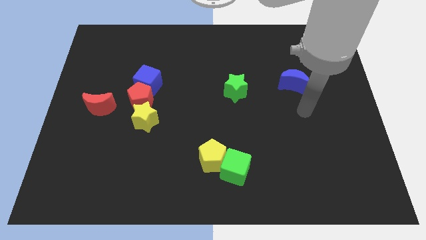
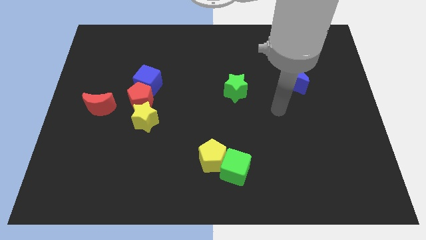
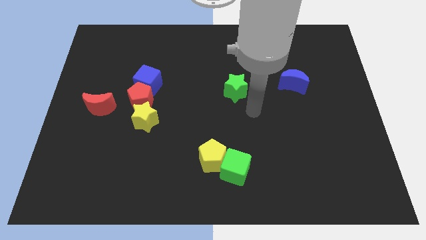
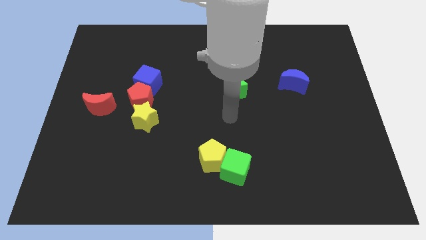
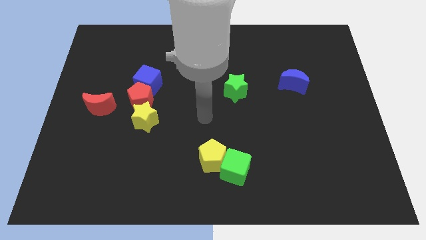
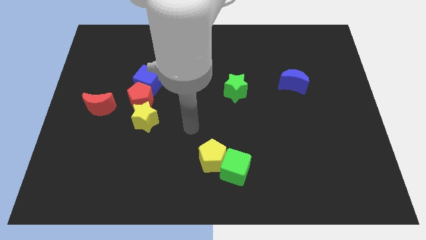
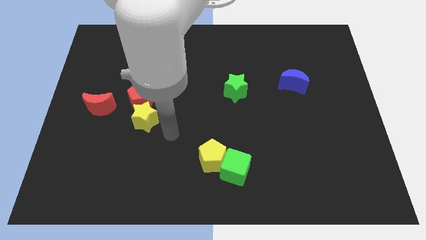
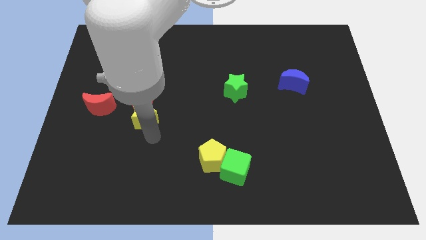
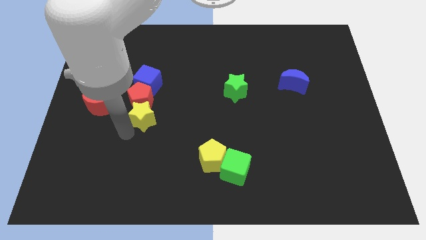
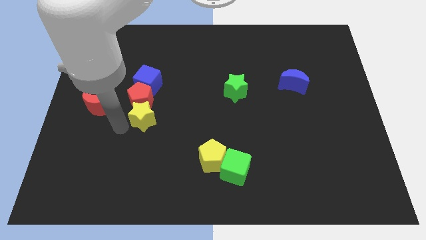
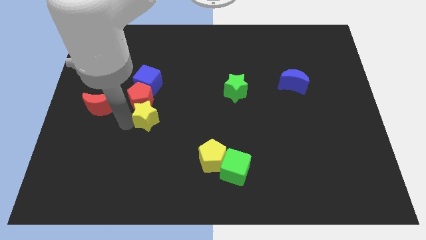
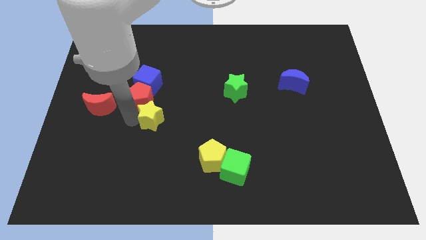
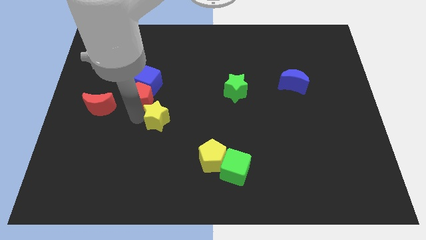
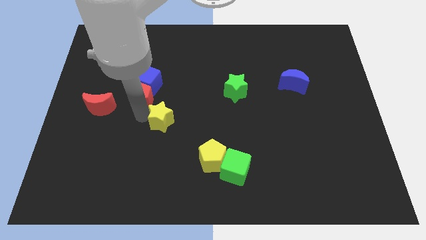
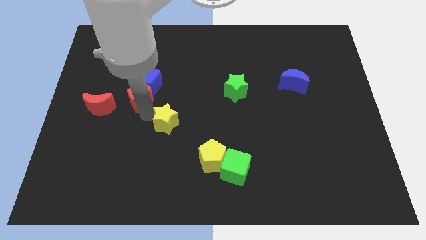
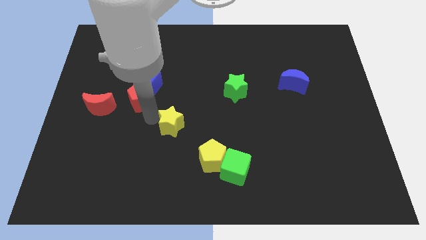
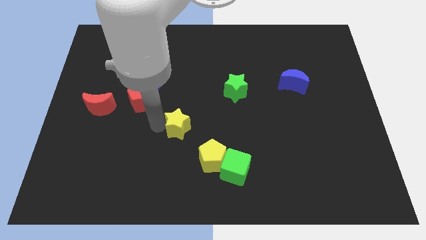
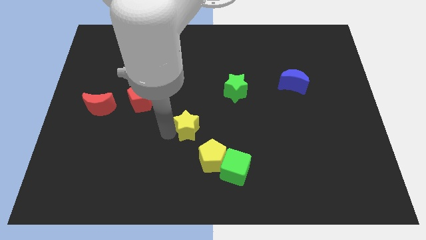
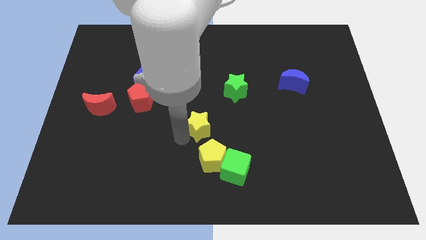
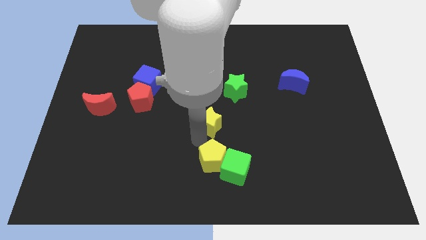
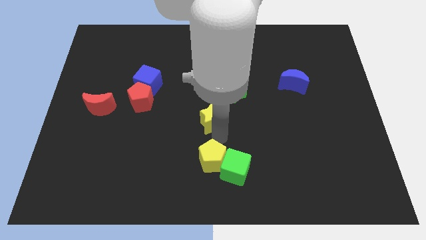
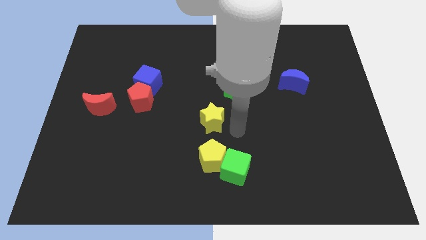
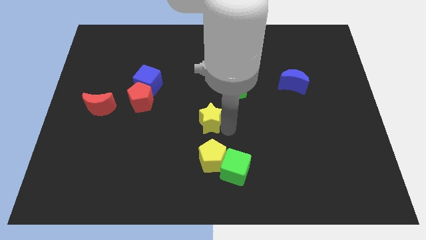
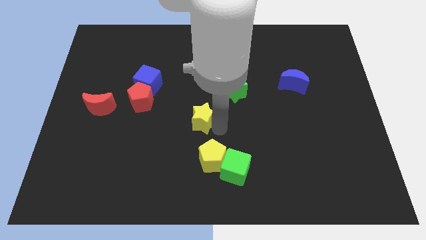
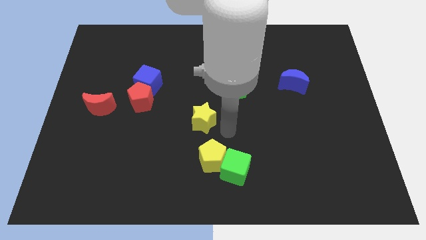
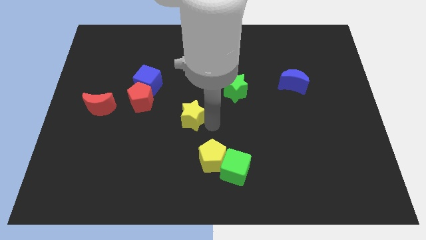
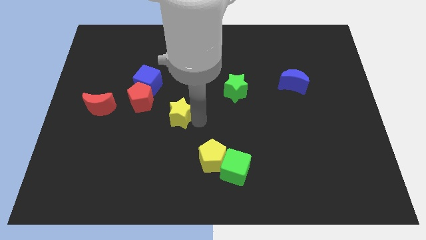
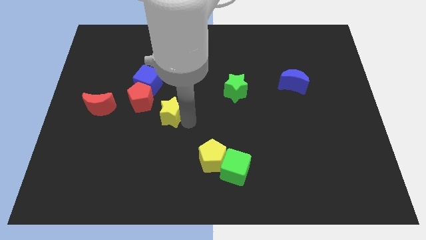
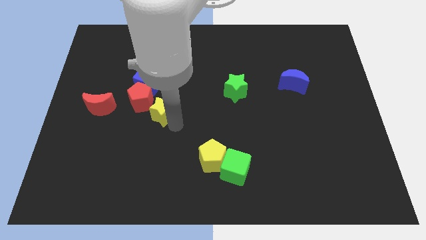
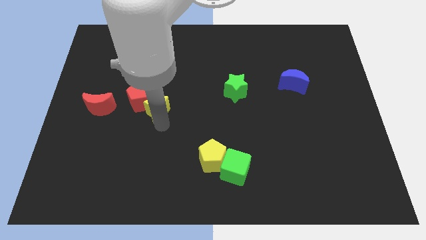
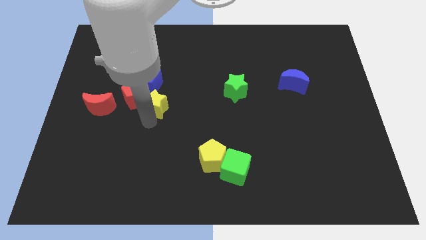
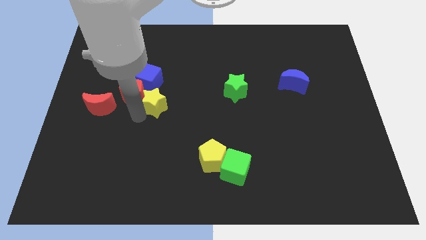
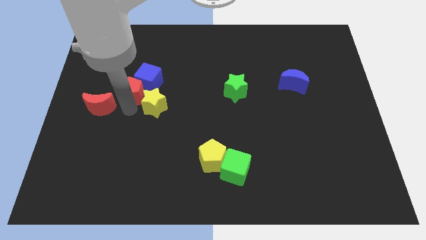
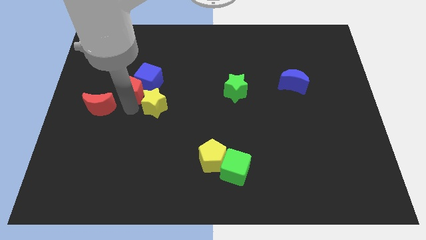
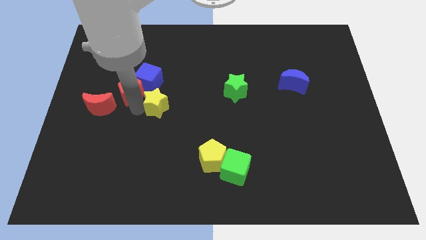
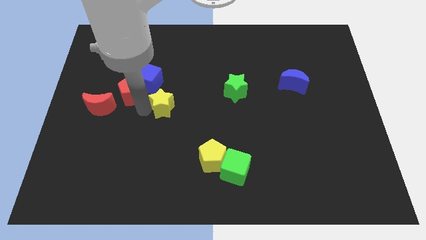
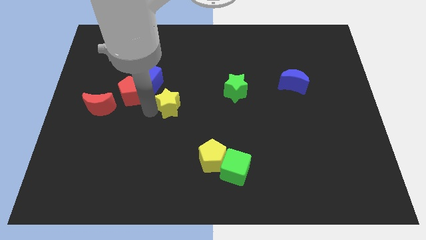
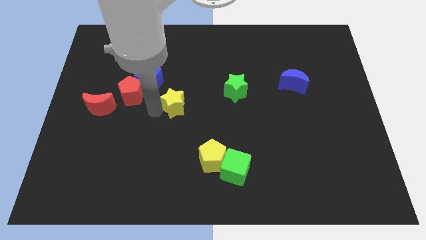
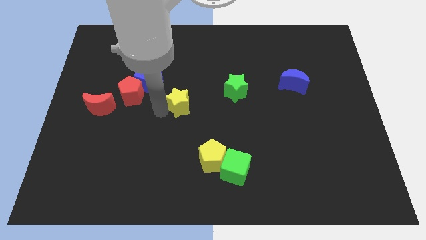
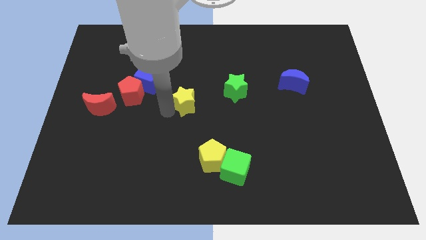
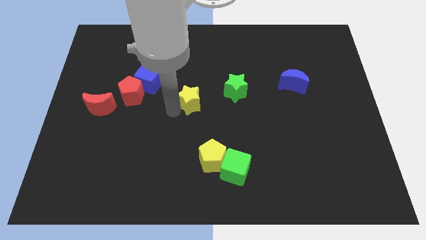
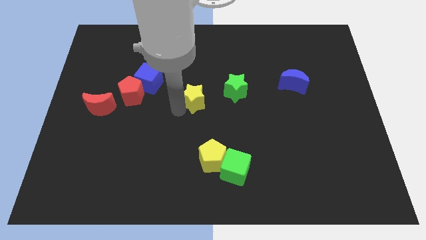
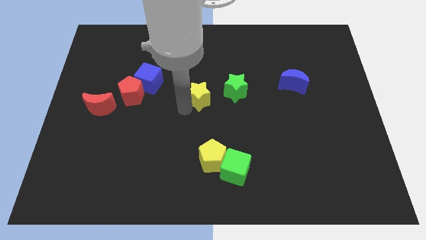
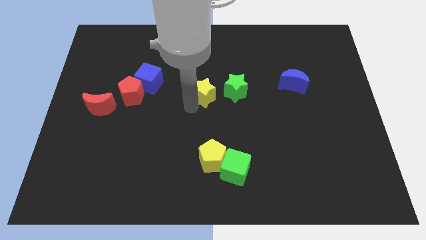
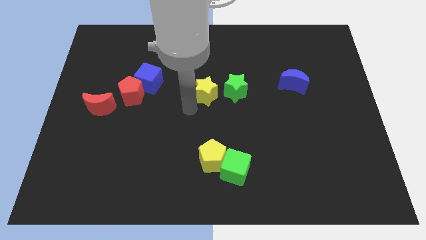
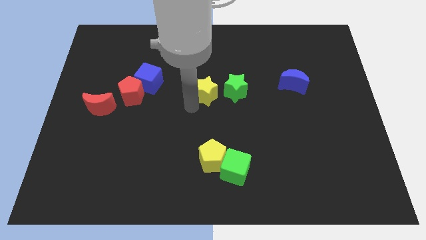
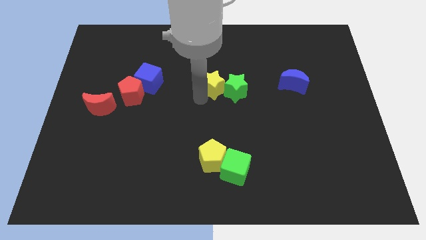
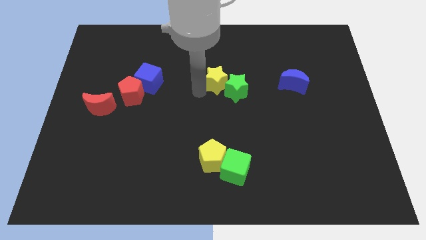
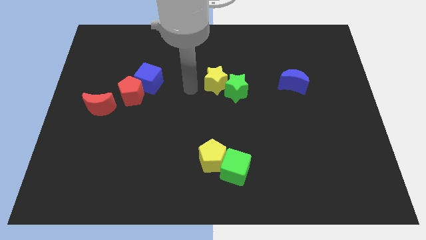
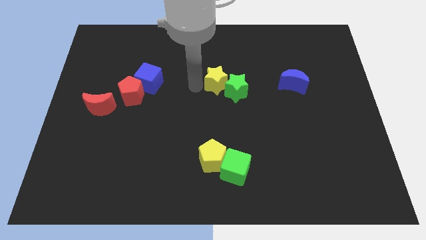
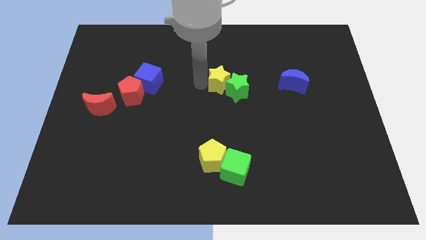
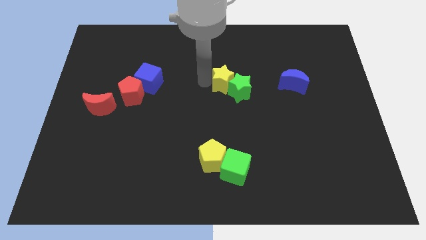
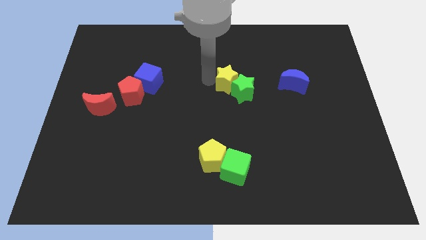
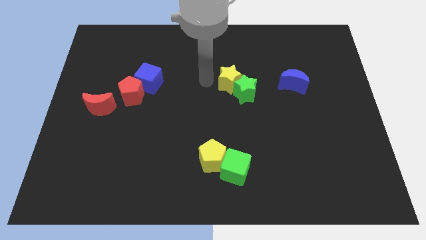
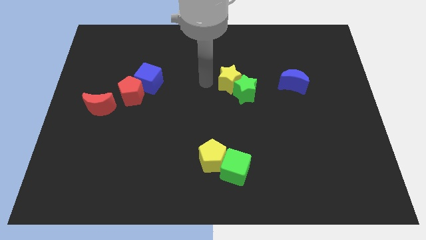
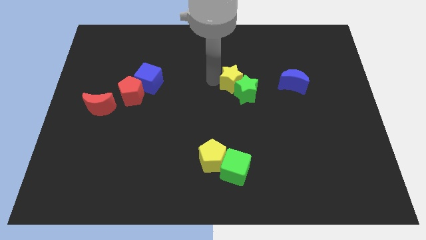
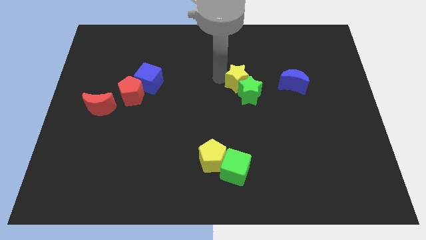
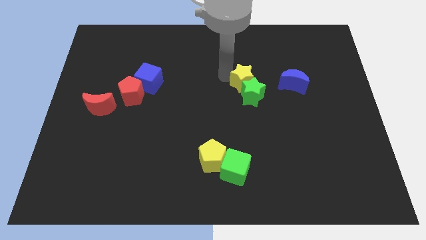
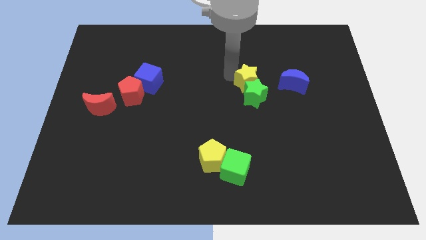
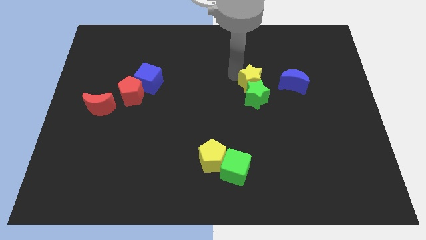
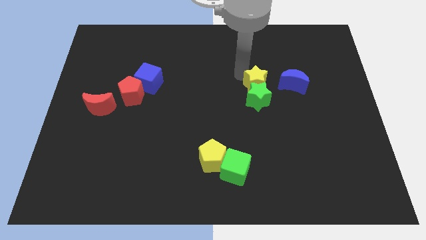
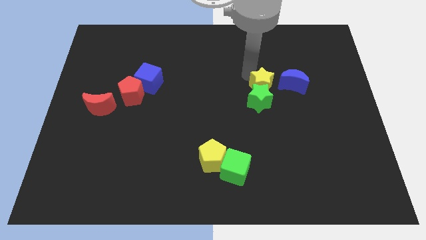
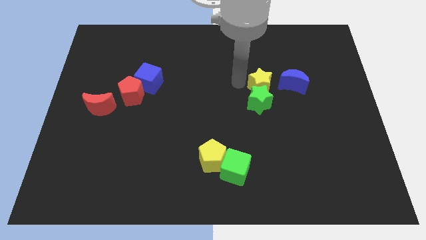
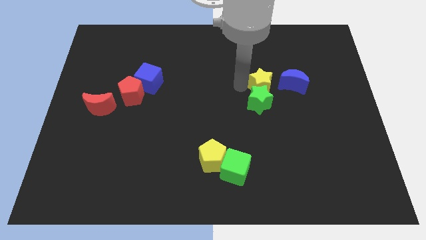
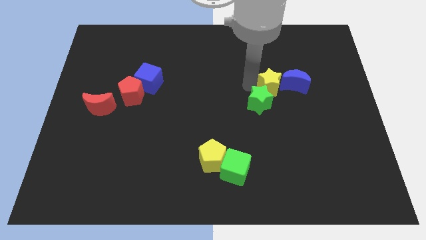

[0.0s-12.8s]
push the yellow star next to the blue moon

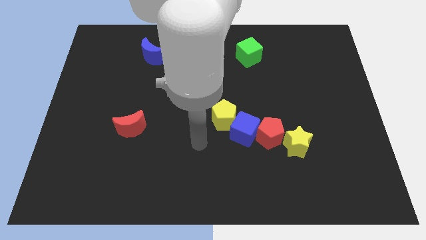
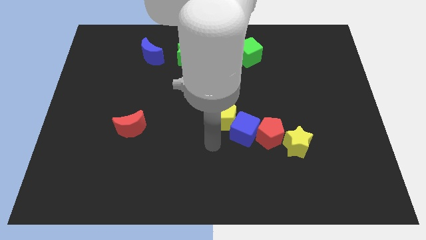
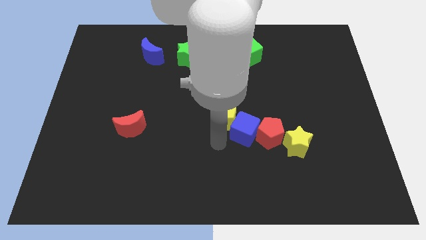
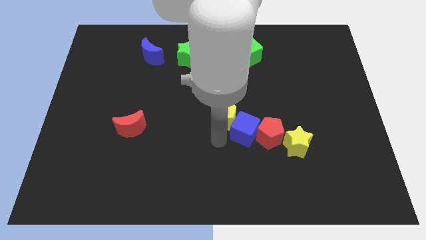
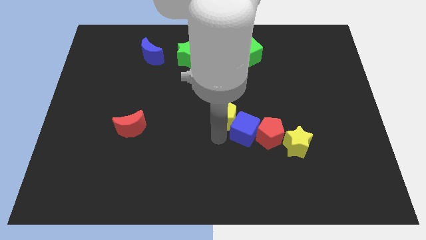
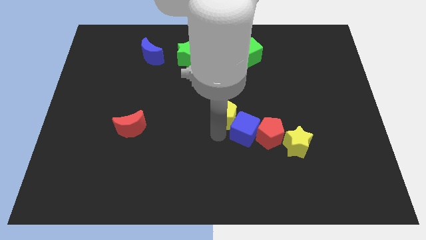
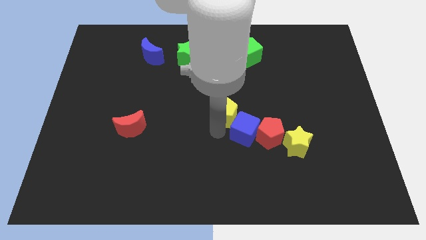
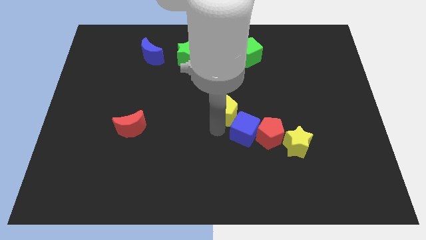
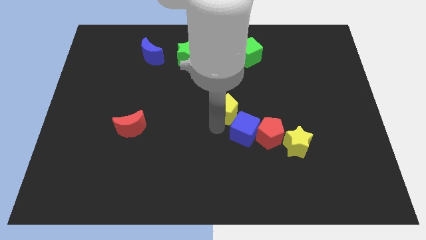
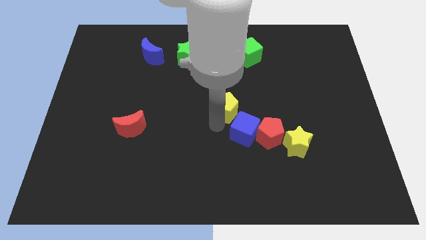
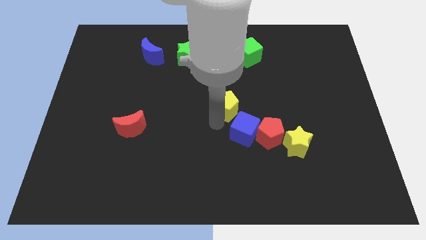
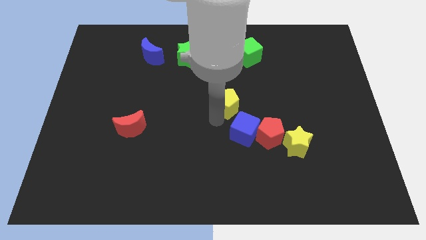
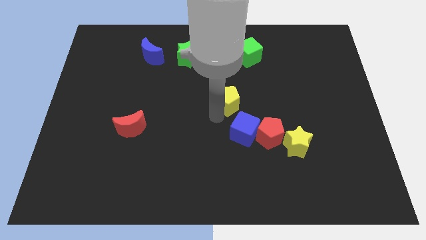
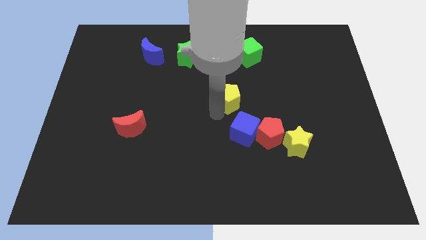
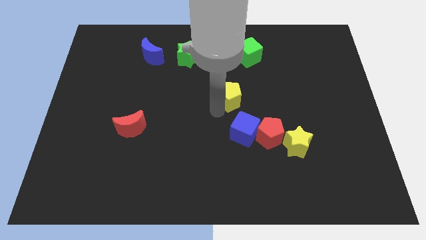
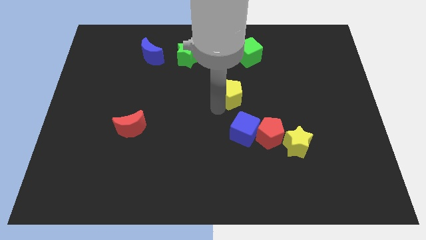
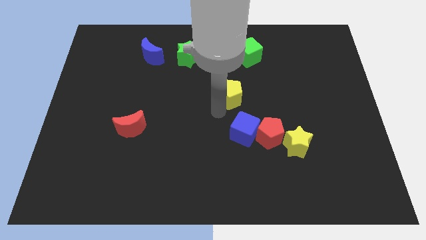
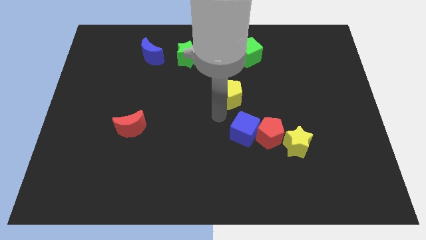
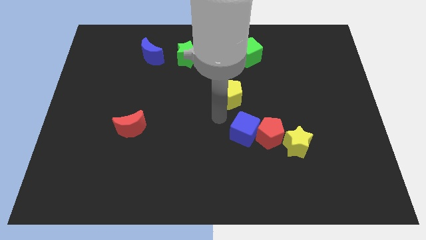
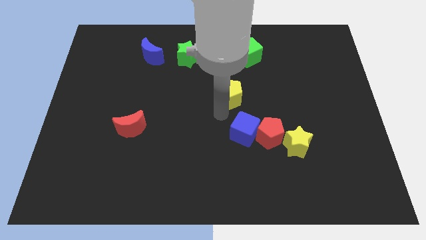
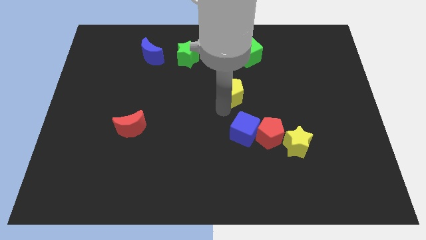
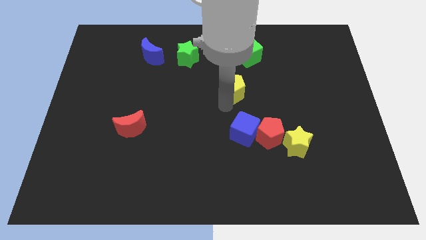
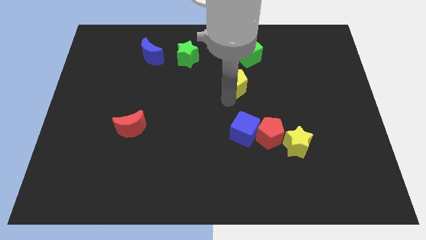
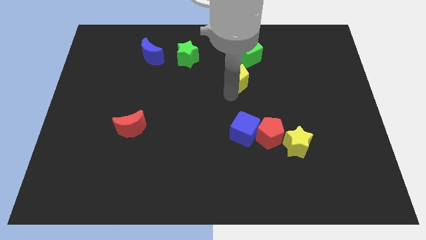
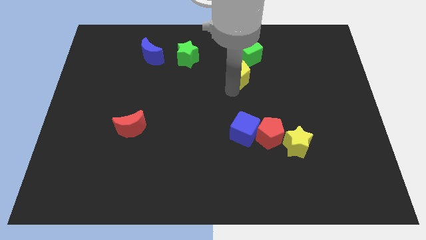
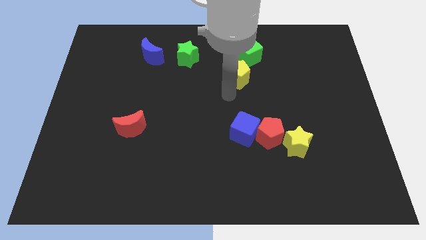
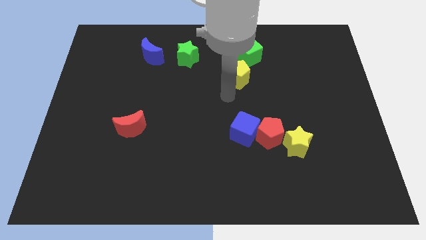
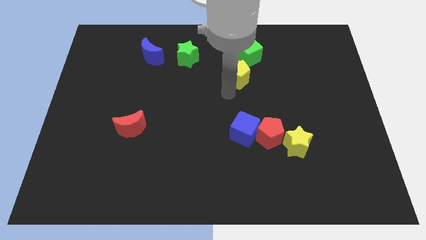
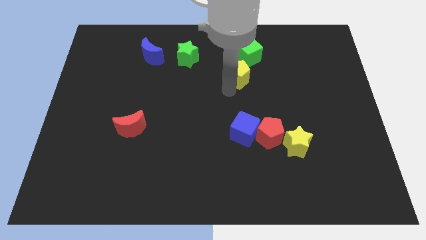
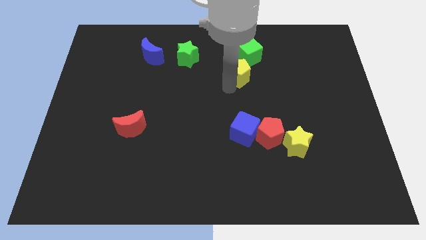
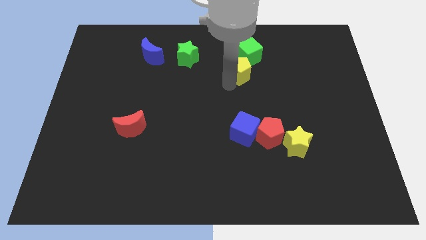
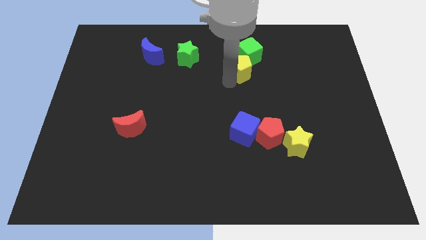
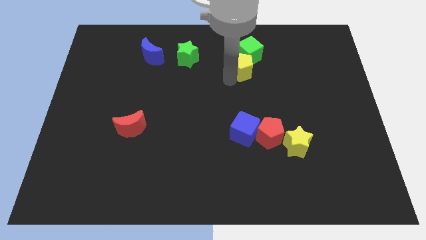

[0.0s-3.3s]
put the yellow pentagon to the green cube
